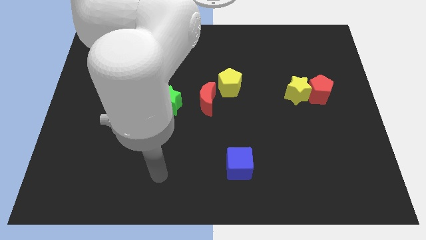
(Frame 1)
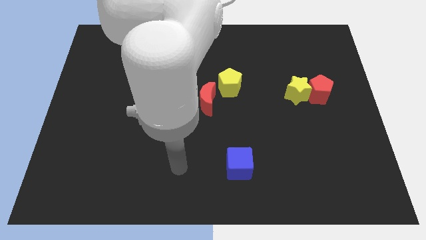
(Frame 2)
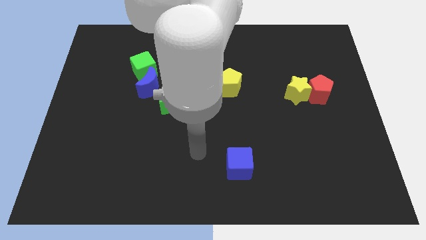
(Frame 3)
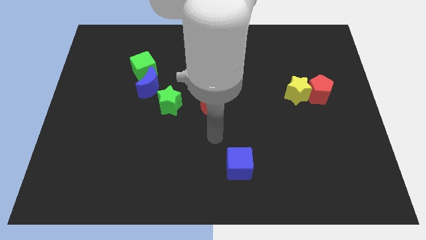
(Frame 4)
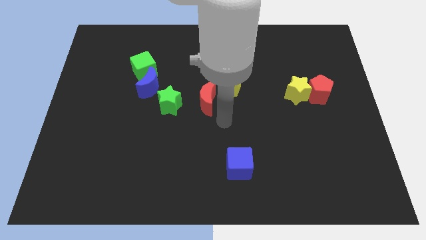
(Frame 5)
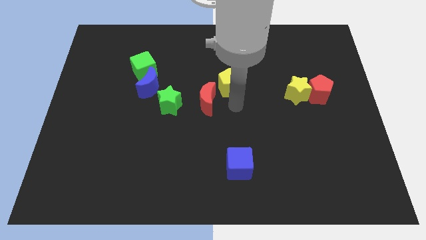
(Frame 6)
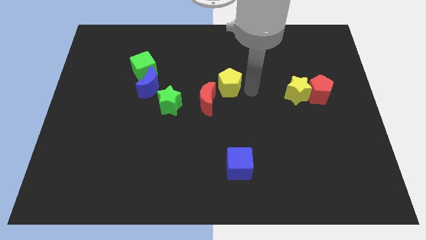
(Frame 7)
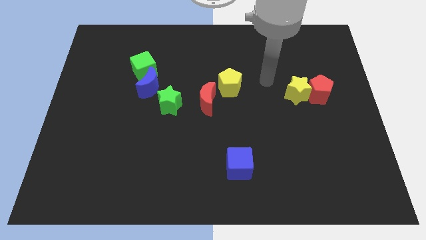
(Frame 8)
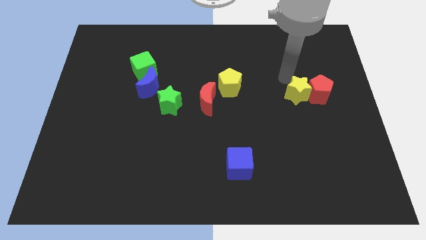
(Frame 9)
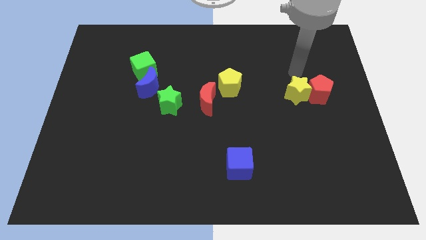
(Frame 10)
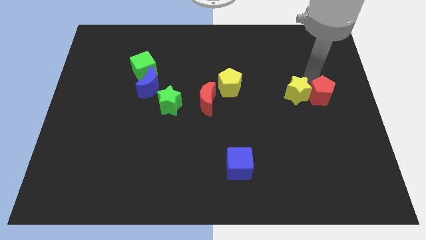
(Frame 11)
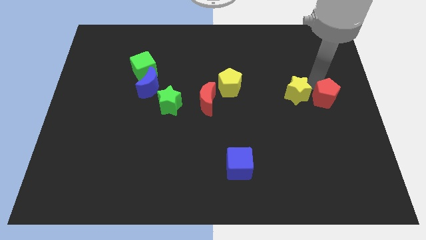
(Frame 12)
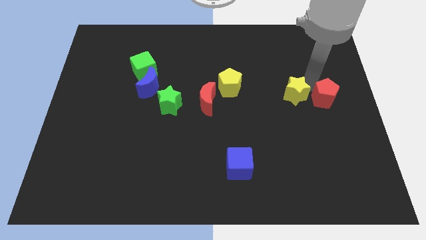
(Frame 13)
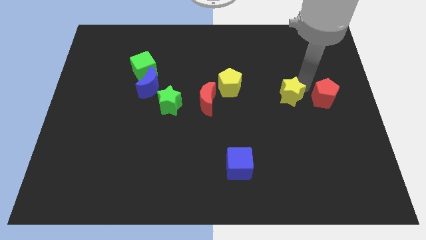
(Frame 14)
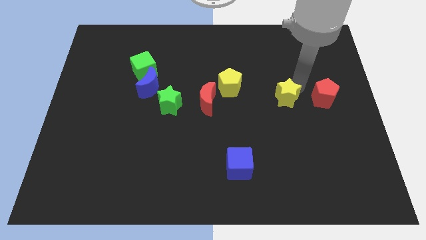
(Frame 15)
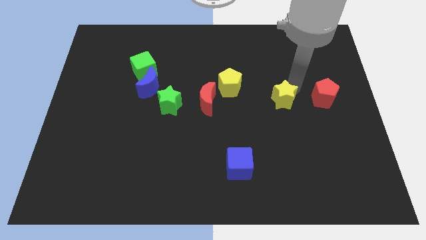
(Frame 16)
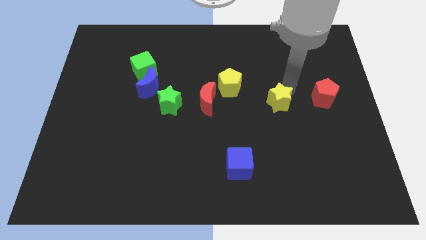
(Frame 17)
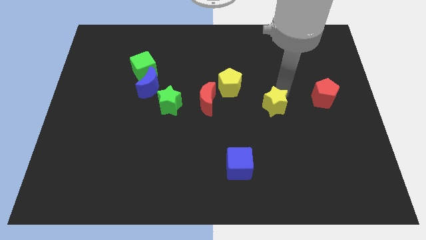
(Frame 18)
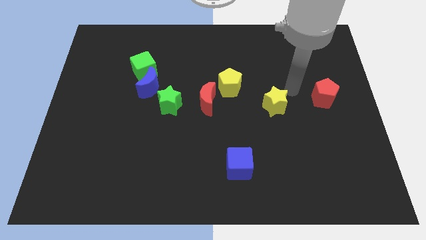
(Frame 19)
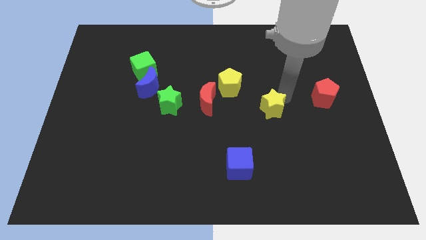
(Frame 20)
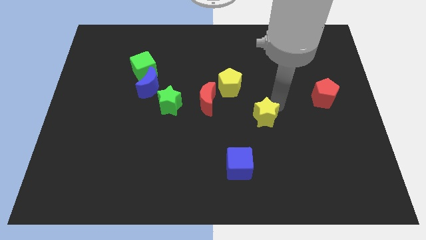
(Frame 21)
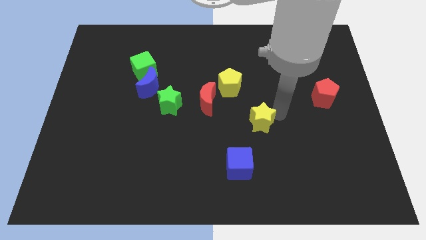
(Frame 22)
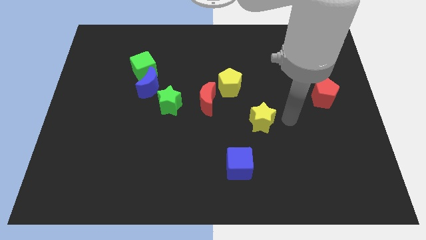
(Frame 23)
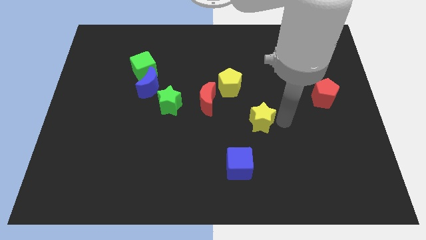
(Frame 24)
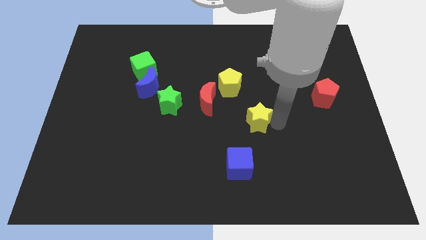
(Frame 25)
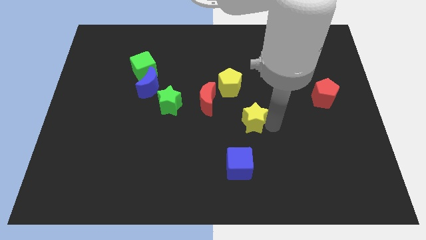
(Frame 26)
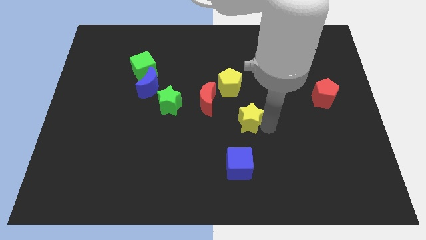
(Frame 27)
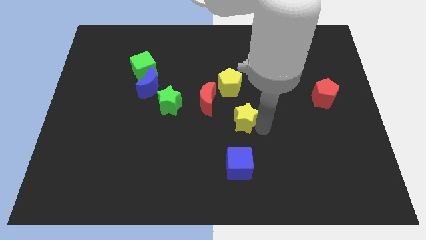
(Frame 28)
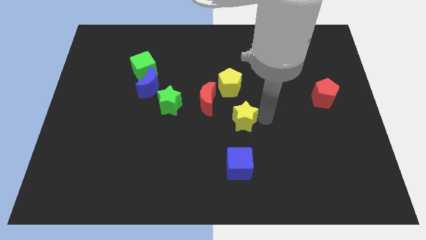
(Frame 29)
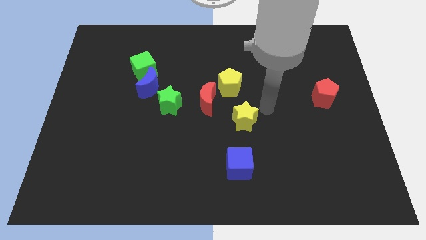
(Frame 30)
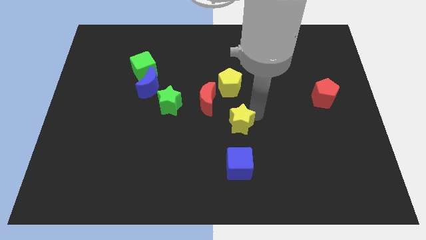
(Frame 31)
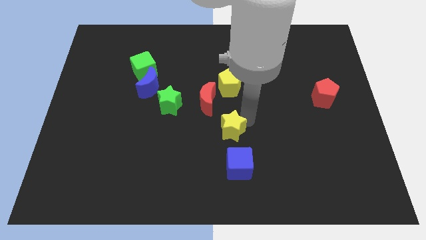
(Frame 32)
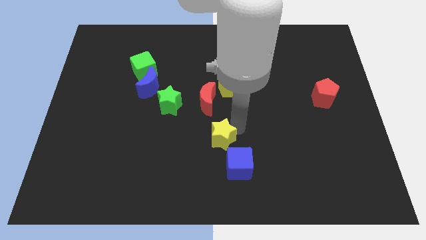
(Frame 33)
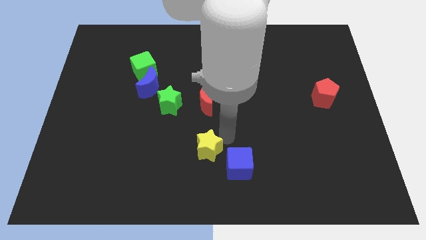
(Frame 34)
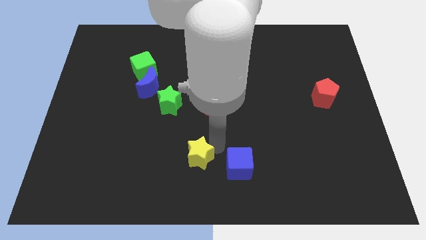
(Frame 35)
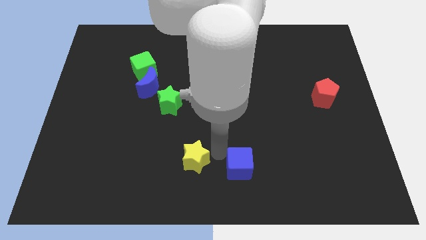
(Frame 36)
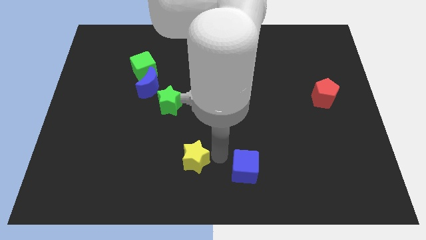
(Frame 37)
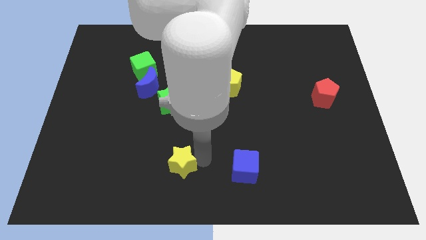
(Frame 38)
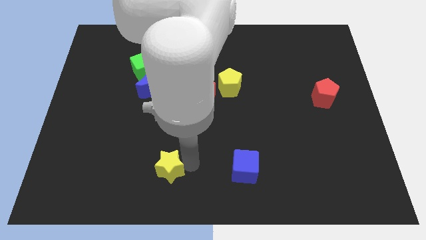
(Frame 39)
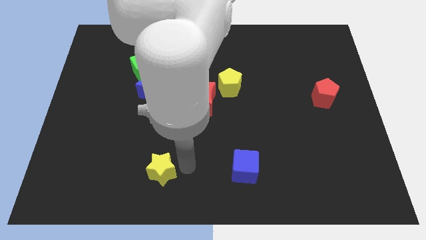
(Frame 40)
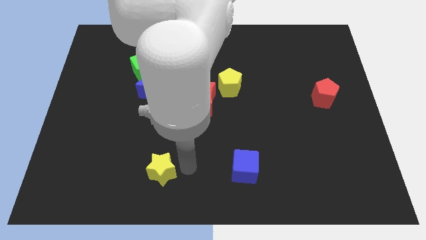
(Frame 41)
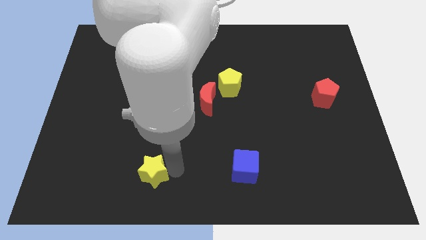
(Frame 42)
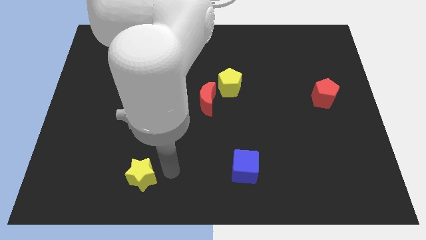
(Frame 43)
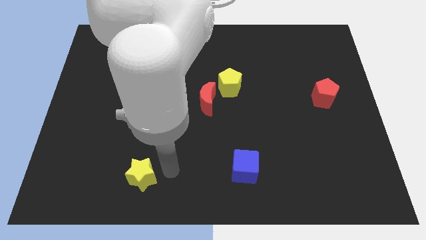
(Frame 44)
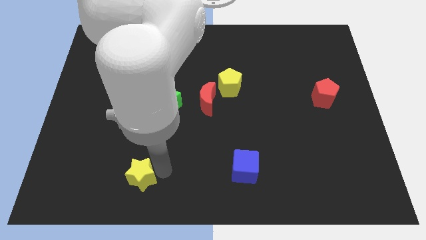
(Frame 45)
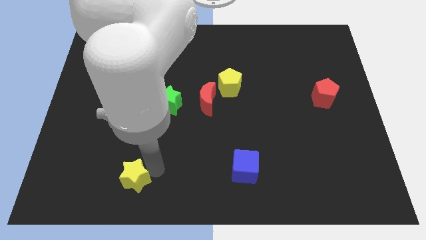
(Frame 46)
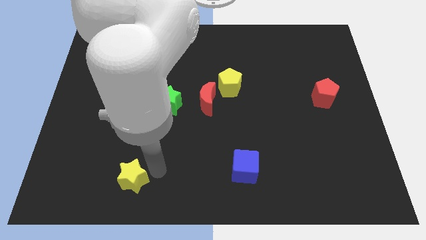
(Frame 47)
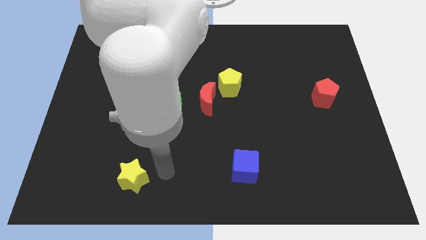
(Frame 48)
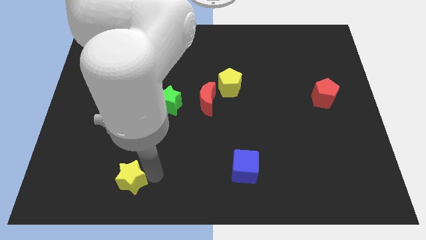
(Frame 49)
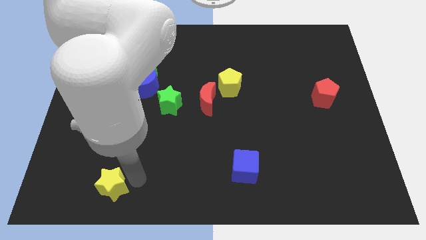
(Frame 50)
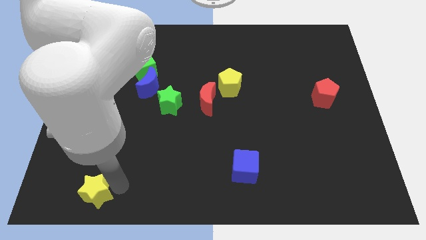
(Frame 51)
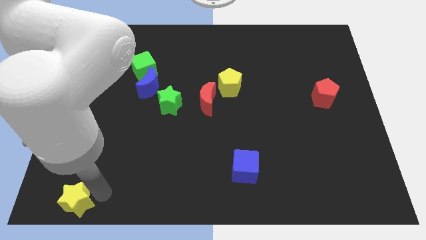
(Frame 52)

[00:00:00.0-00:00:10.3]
put the yellow star to the bottom left corner

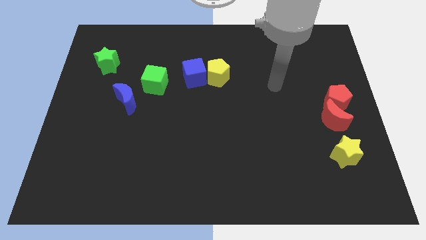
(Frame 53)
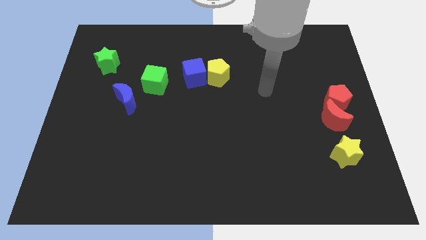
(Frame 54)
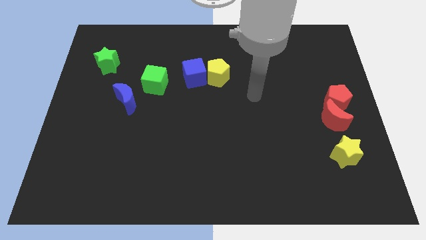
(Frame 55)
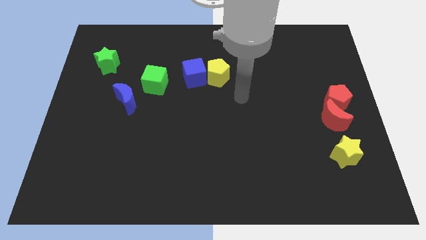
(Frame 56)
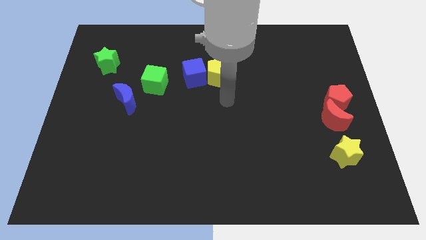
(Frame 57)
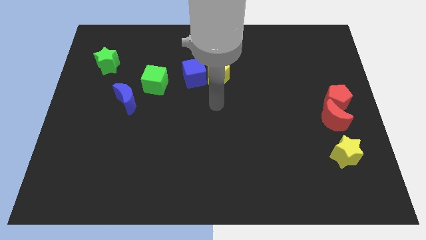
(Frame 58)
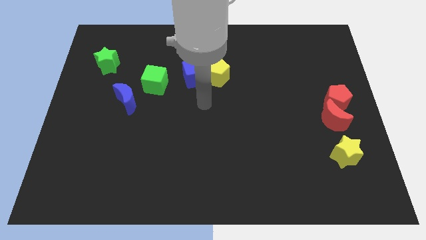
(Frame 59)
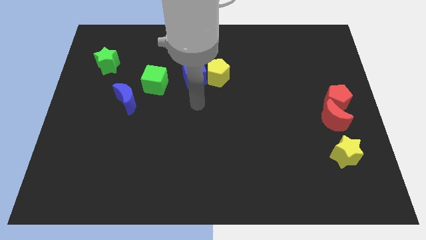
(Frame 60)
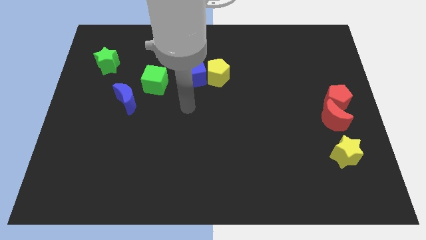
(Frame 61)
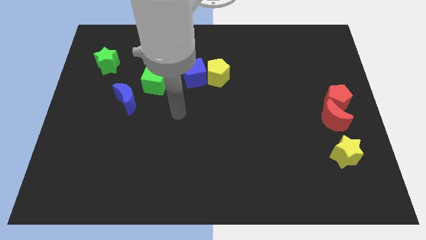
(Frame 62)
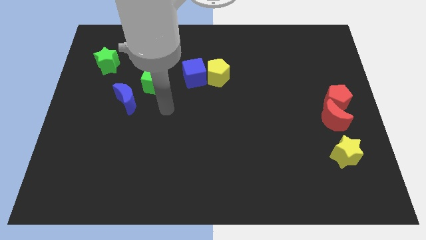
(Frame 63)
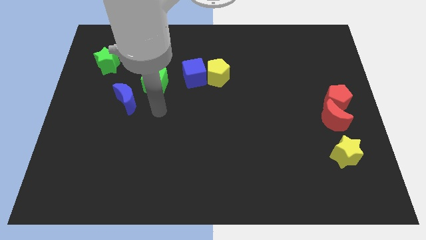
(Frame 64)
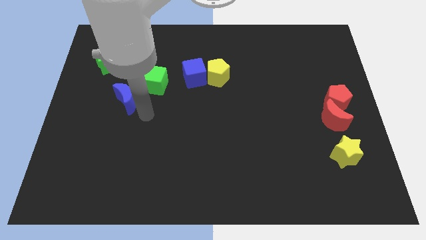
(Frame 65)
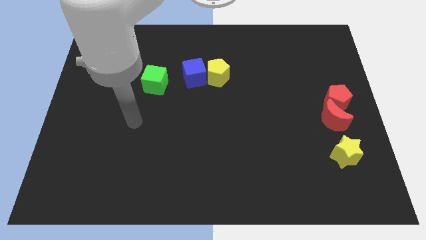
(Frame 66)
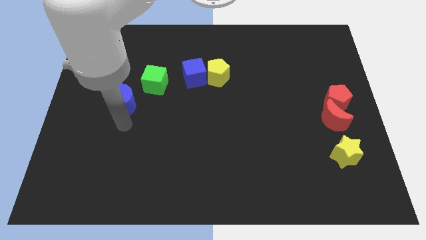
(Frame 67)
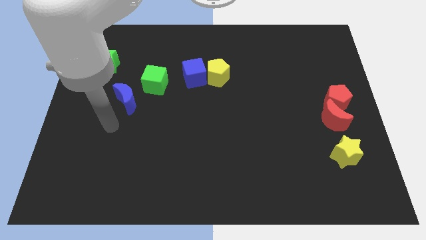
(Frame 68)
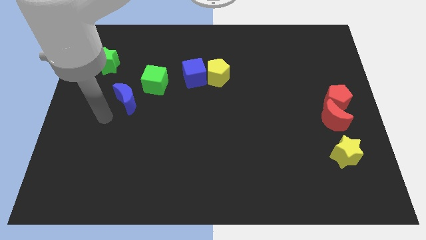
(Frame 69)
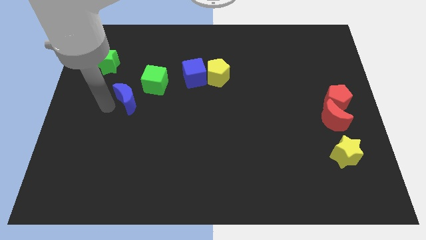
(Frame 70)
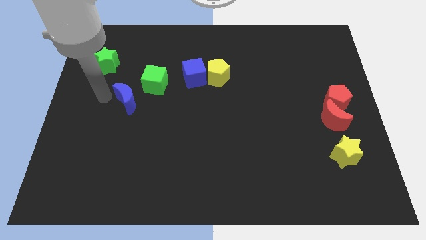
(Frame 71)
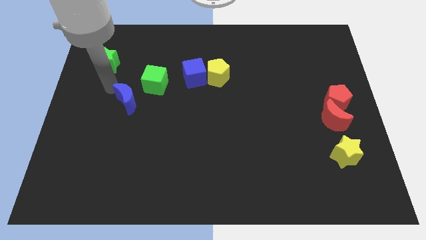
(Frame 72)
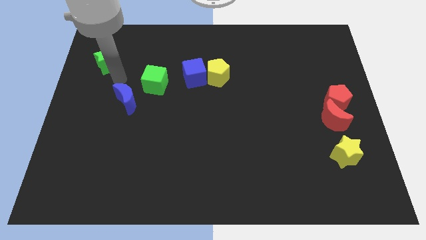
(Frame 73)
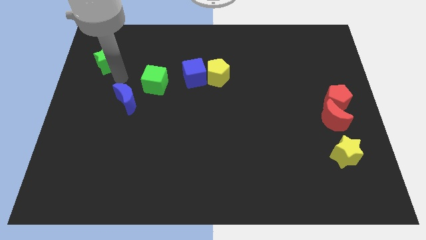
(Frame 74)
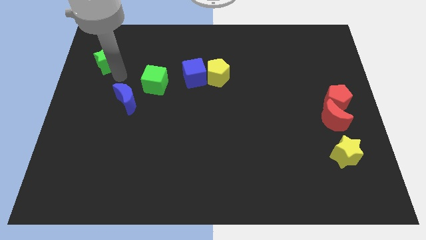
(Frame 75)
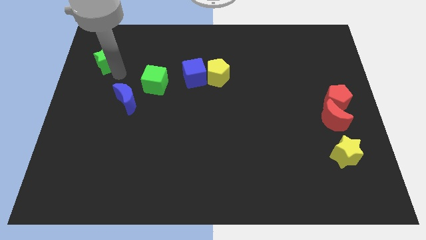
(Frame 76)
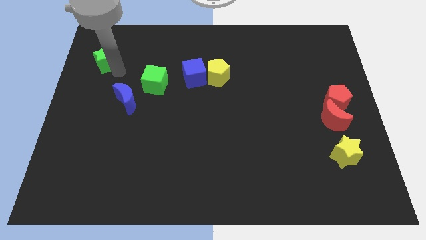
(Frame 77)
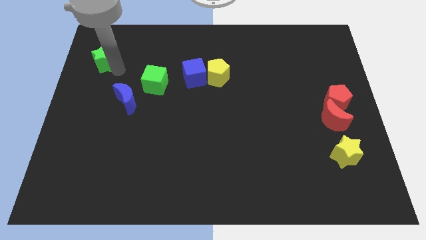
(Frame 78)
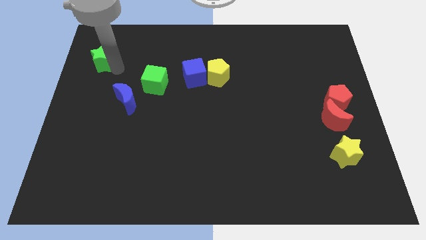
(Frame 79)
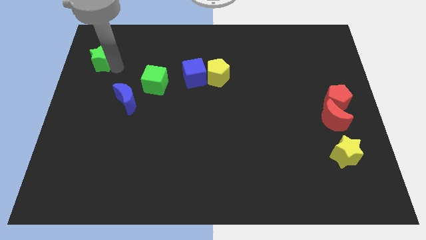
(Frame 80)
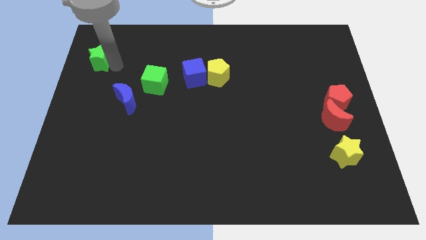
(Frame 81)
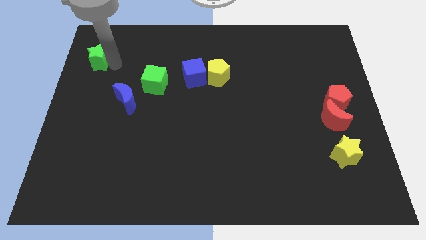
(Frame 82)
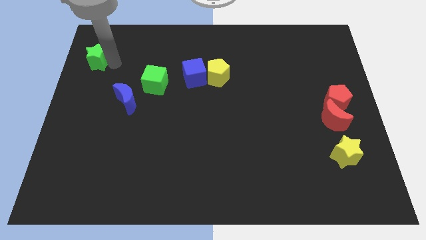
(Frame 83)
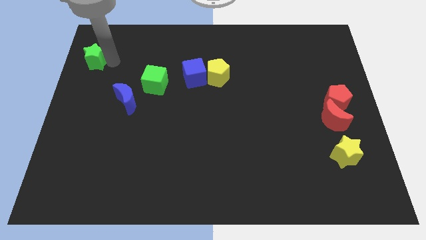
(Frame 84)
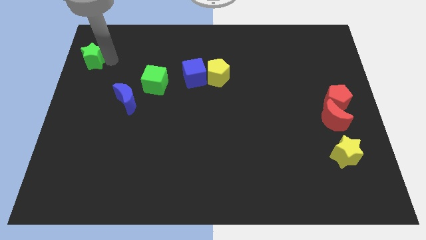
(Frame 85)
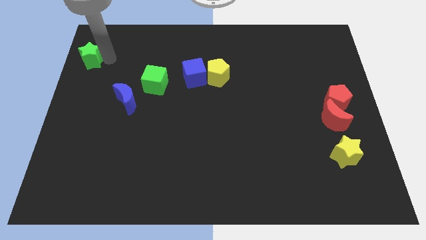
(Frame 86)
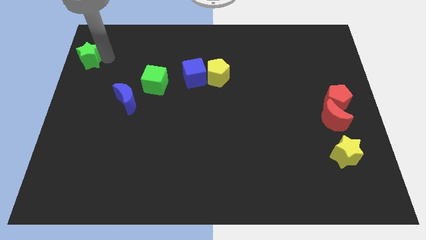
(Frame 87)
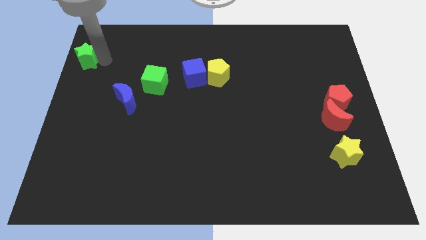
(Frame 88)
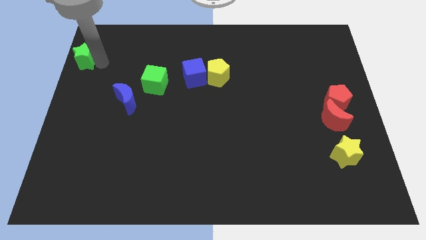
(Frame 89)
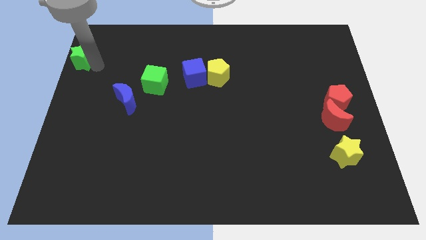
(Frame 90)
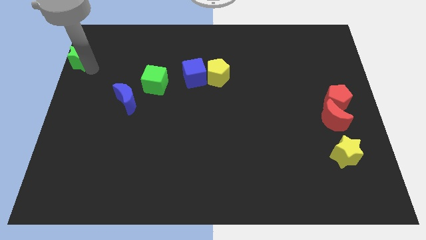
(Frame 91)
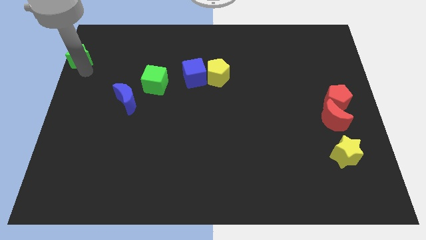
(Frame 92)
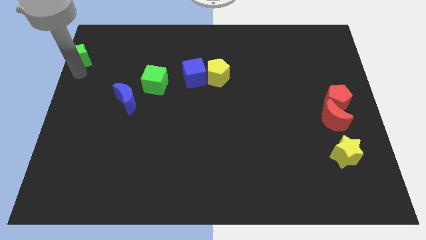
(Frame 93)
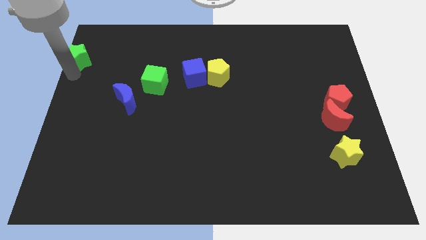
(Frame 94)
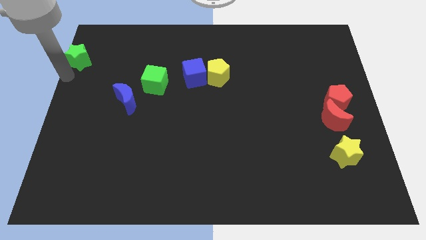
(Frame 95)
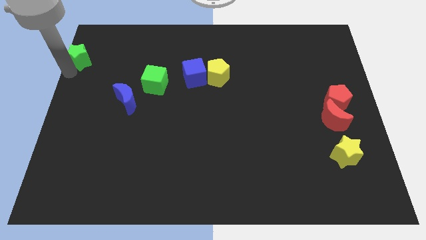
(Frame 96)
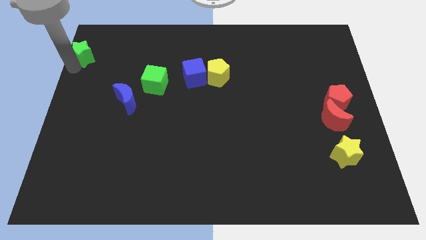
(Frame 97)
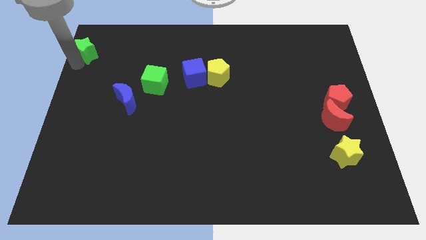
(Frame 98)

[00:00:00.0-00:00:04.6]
put the green star to the top left
